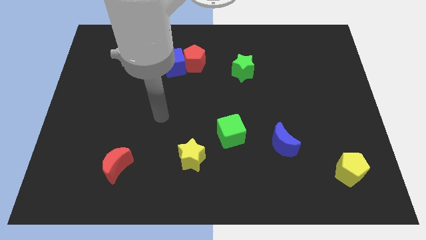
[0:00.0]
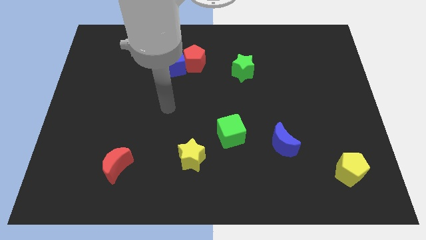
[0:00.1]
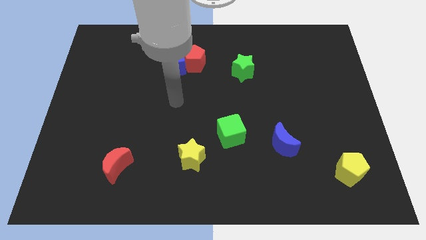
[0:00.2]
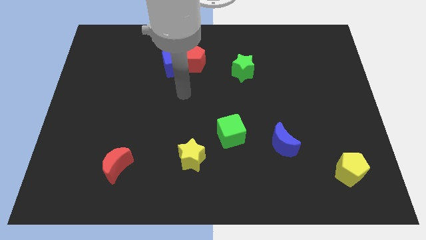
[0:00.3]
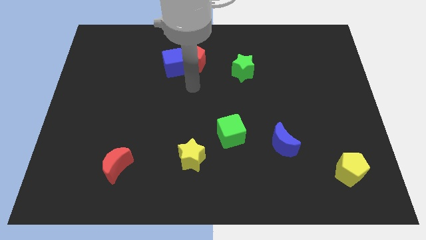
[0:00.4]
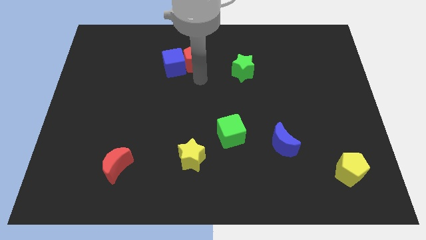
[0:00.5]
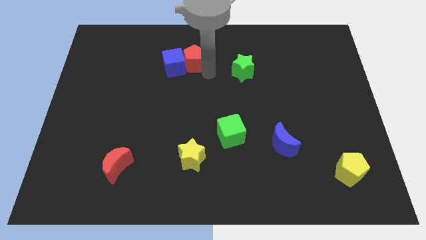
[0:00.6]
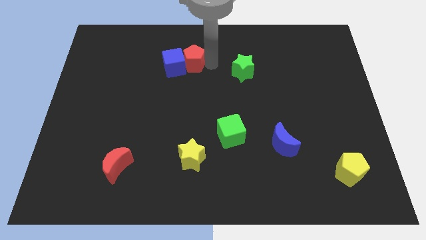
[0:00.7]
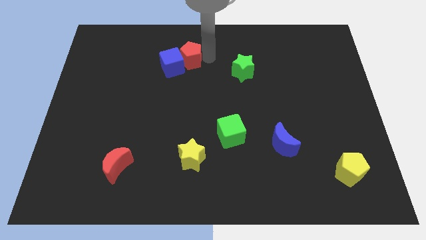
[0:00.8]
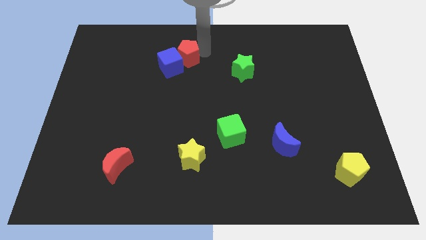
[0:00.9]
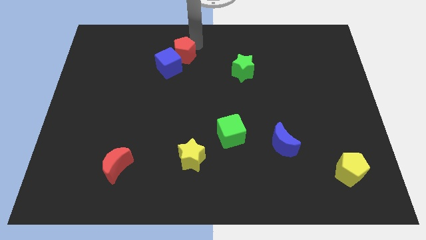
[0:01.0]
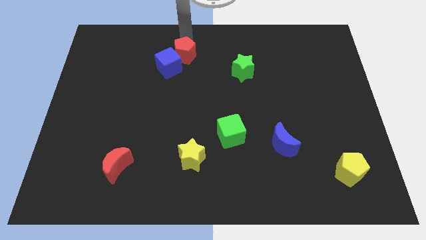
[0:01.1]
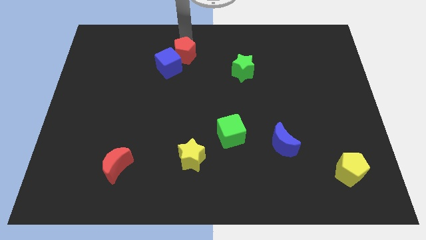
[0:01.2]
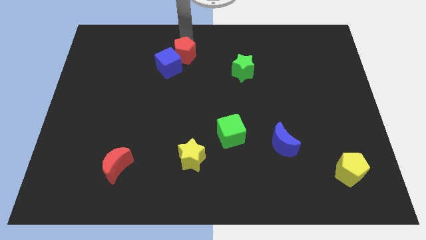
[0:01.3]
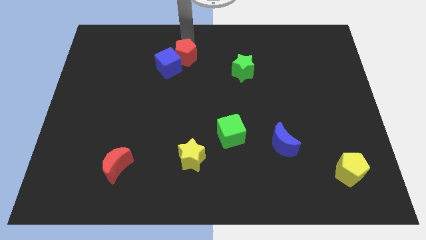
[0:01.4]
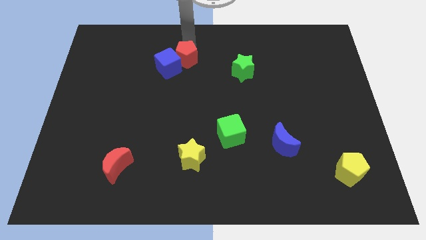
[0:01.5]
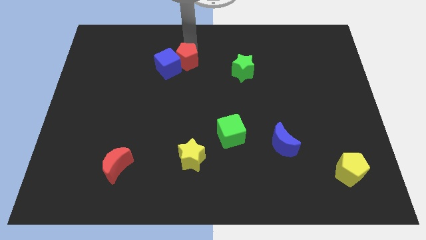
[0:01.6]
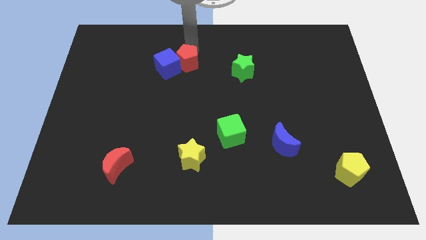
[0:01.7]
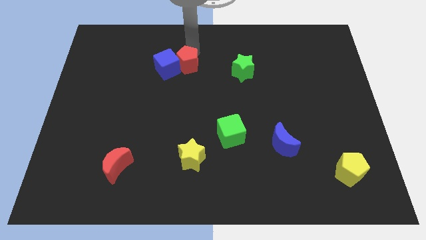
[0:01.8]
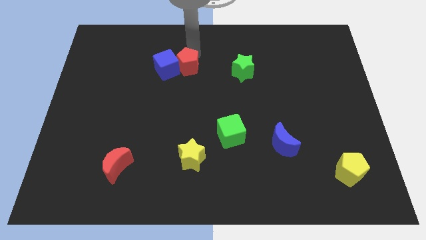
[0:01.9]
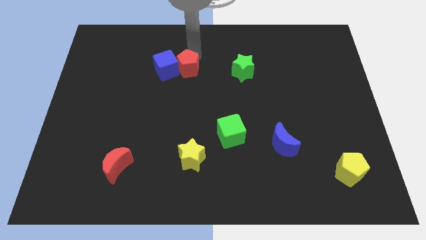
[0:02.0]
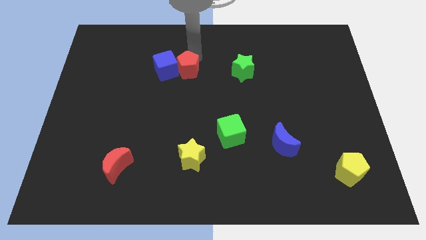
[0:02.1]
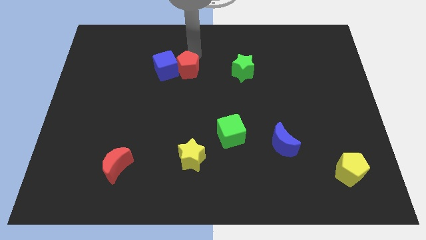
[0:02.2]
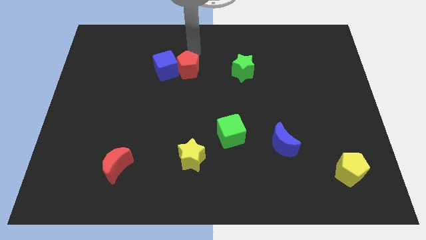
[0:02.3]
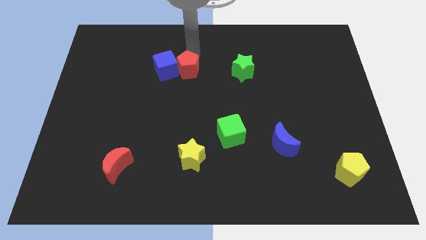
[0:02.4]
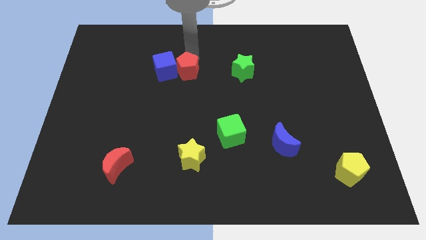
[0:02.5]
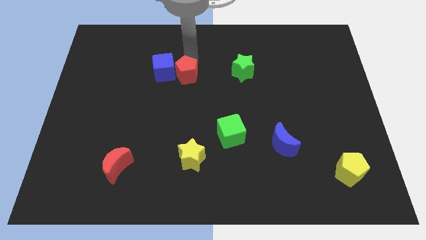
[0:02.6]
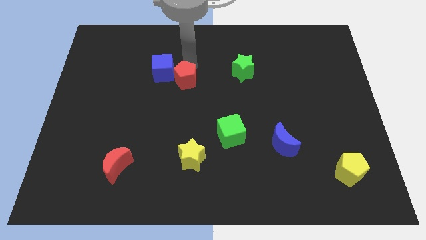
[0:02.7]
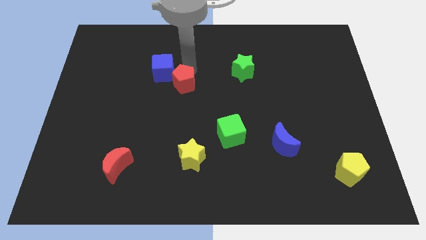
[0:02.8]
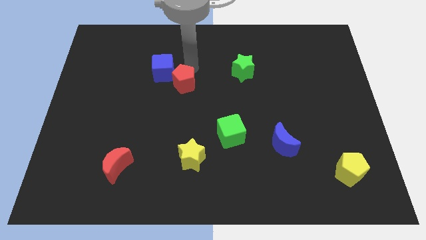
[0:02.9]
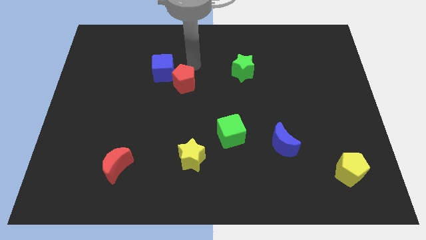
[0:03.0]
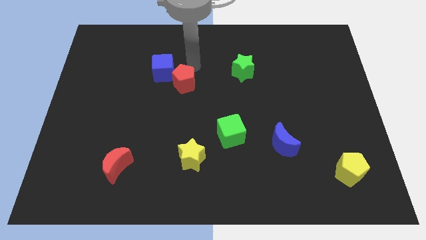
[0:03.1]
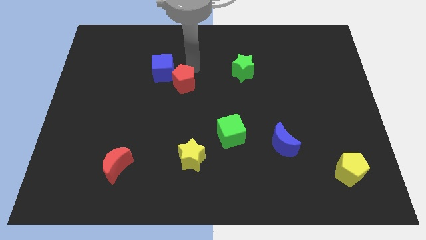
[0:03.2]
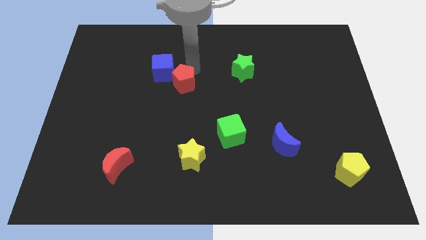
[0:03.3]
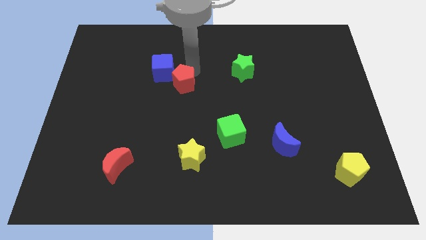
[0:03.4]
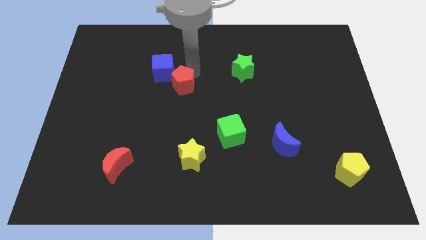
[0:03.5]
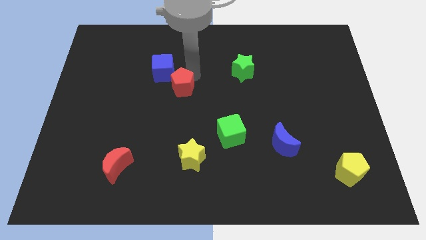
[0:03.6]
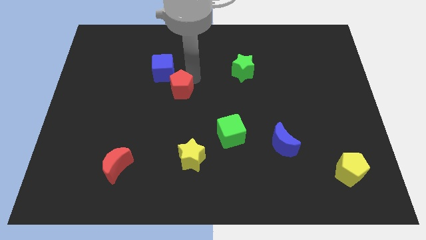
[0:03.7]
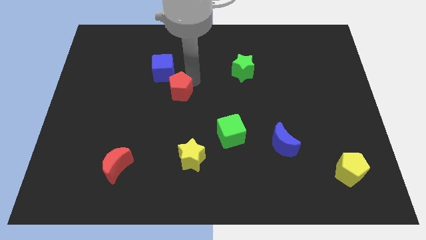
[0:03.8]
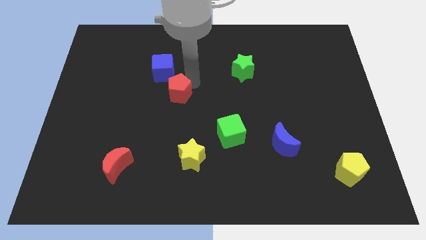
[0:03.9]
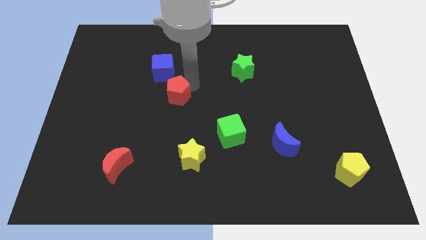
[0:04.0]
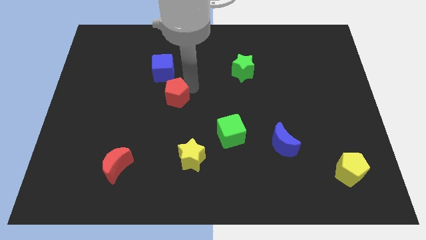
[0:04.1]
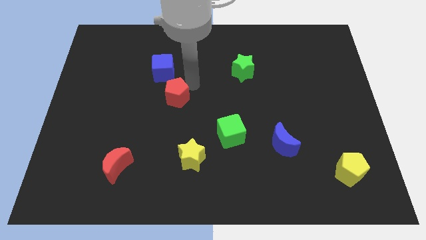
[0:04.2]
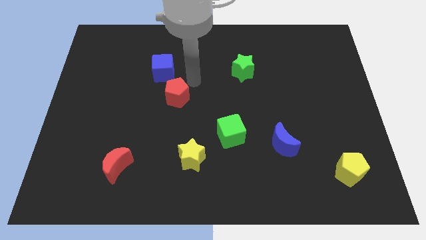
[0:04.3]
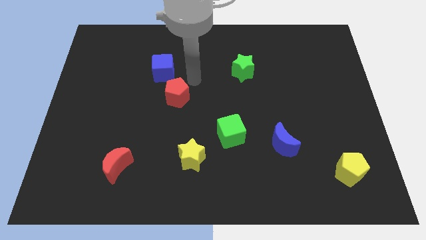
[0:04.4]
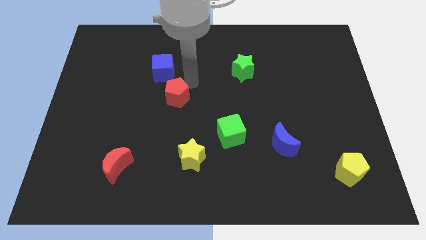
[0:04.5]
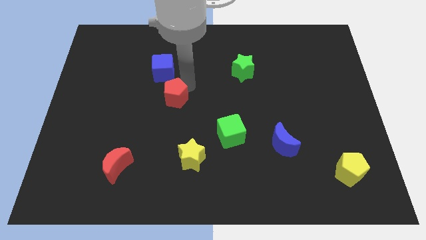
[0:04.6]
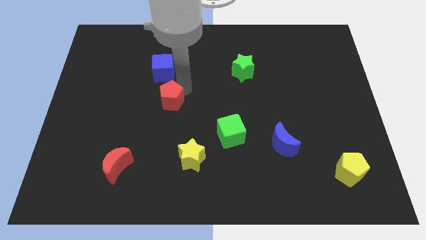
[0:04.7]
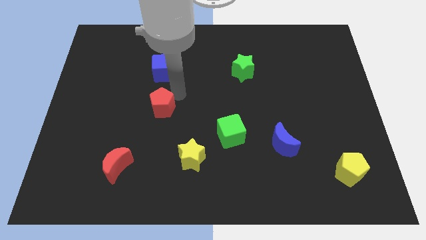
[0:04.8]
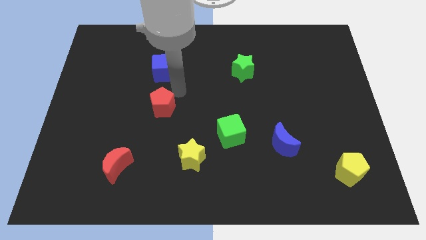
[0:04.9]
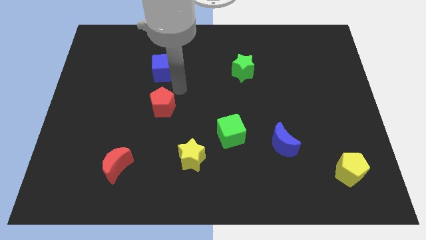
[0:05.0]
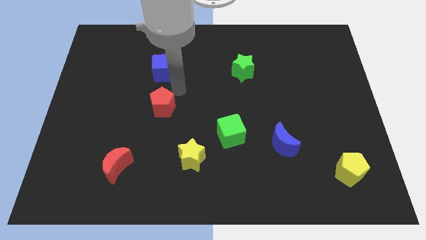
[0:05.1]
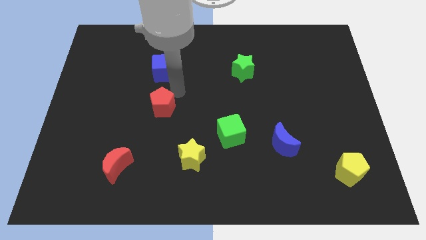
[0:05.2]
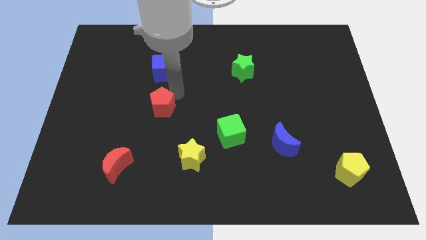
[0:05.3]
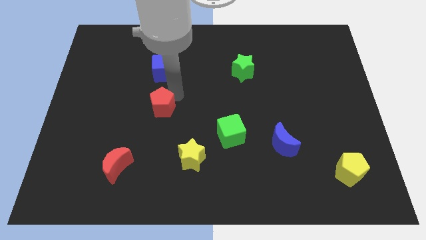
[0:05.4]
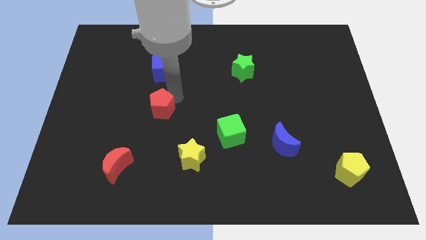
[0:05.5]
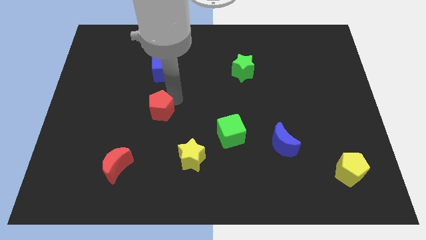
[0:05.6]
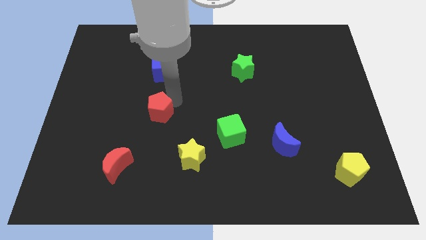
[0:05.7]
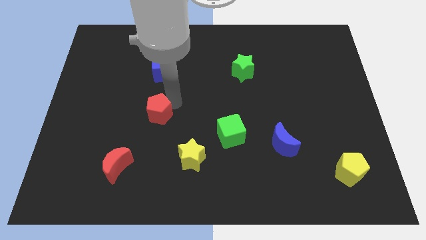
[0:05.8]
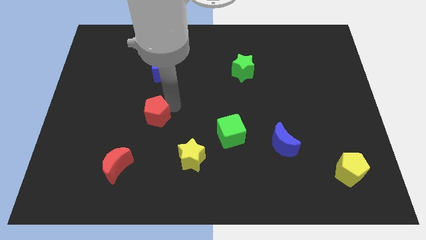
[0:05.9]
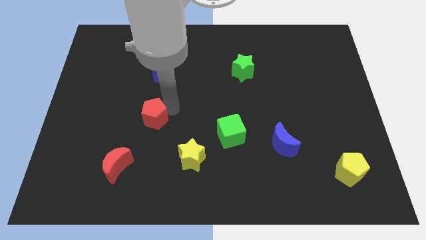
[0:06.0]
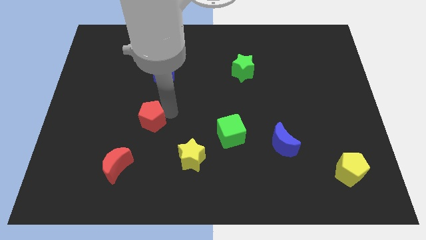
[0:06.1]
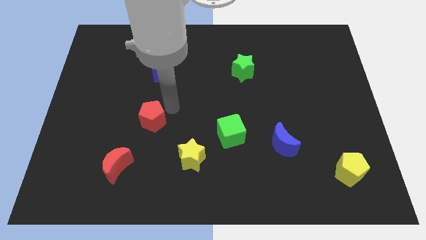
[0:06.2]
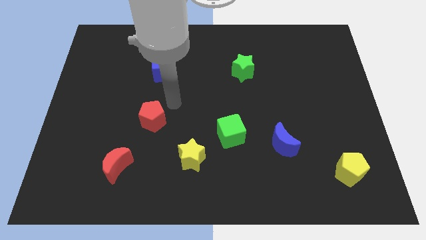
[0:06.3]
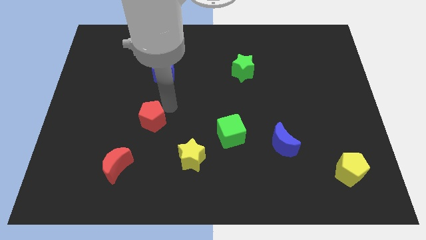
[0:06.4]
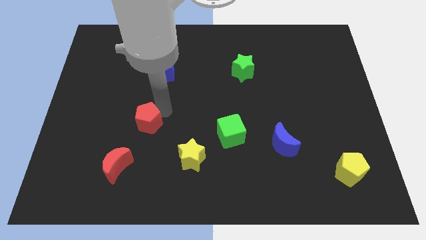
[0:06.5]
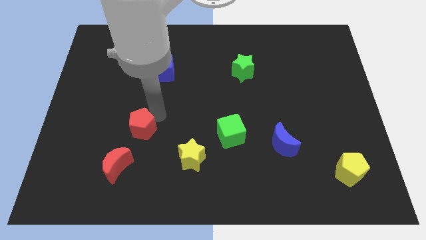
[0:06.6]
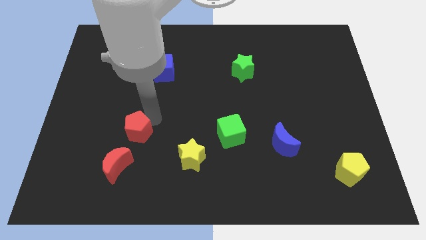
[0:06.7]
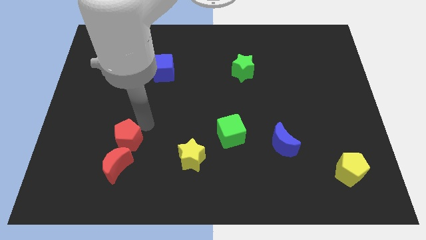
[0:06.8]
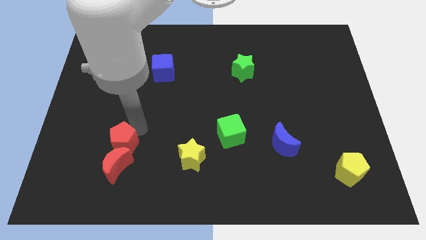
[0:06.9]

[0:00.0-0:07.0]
push the red pentagon close to the red moon

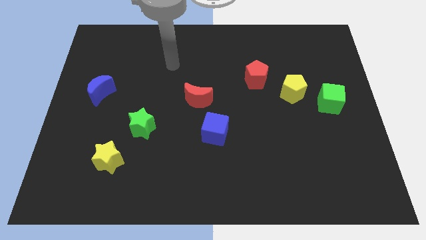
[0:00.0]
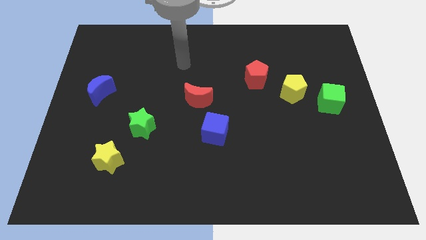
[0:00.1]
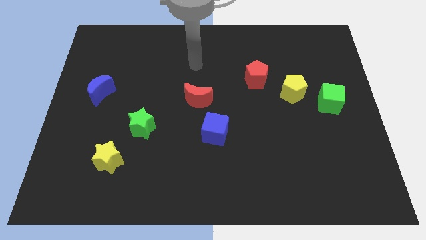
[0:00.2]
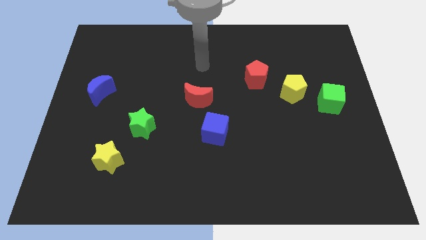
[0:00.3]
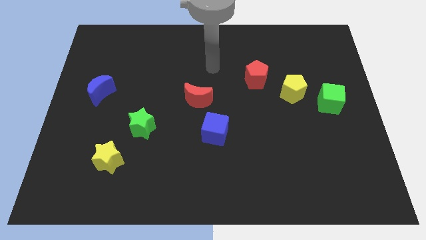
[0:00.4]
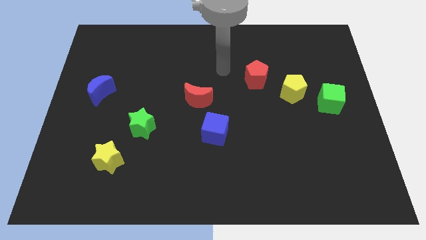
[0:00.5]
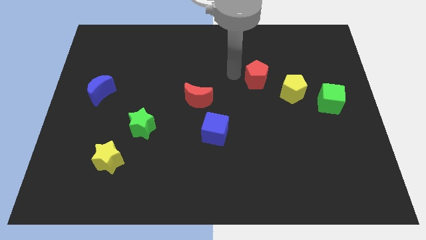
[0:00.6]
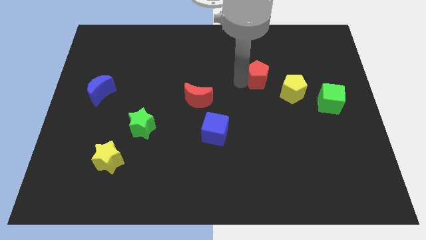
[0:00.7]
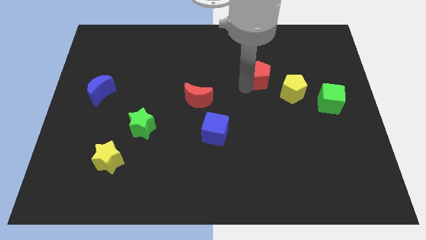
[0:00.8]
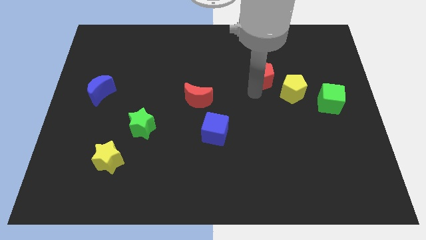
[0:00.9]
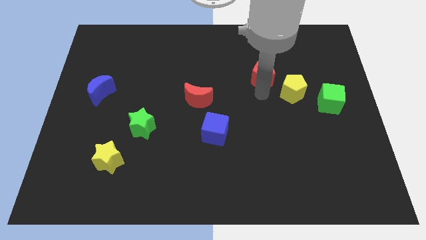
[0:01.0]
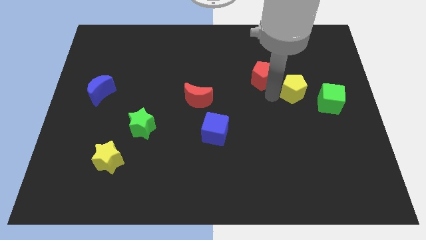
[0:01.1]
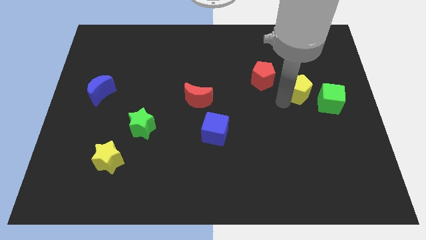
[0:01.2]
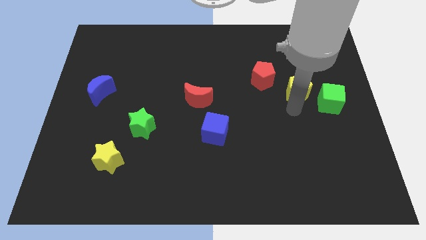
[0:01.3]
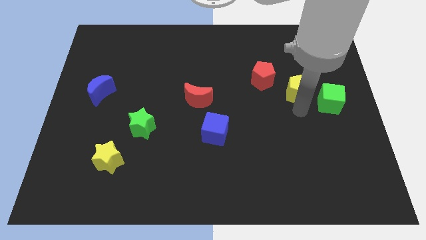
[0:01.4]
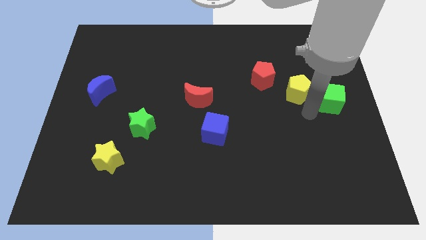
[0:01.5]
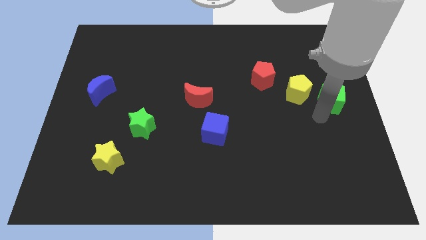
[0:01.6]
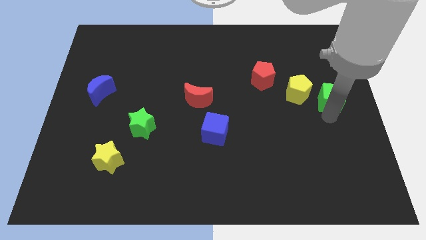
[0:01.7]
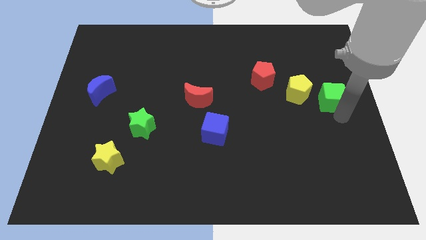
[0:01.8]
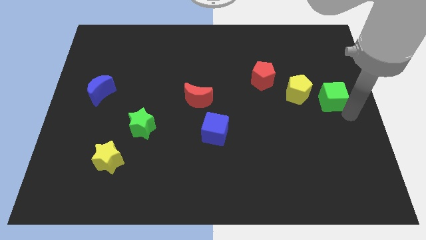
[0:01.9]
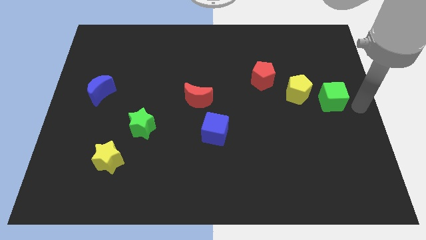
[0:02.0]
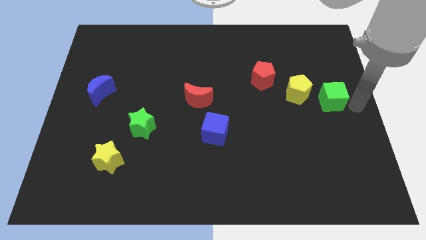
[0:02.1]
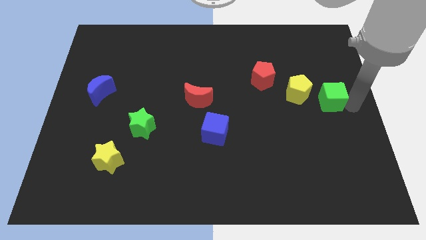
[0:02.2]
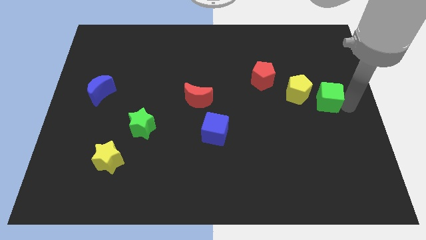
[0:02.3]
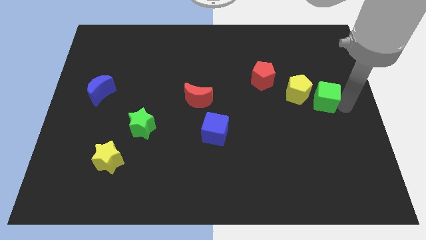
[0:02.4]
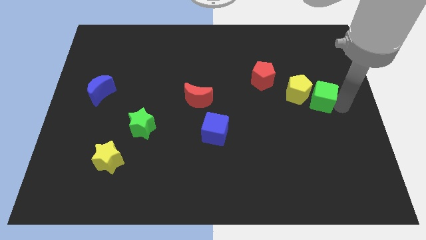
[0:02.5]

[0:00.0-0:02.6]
put the green cube close to the yellow pentagon
